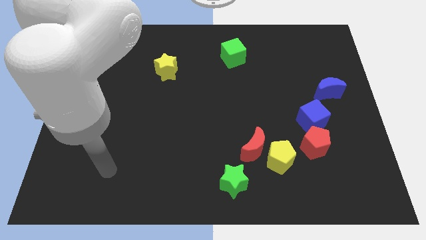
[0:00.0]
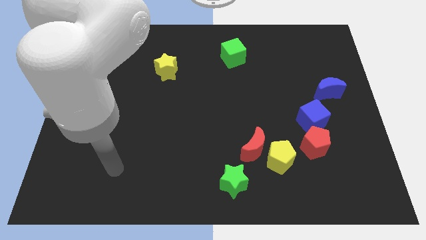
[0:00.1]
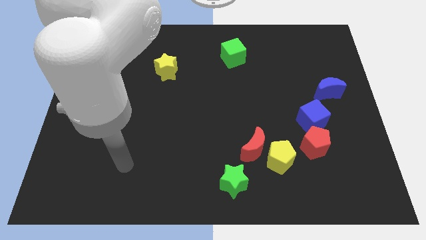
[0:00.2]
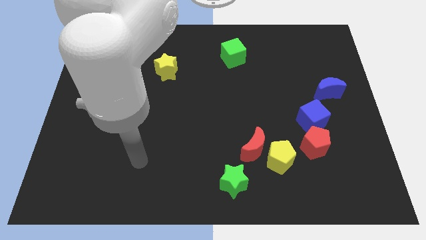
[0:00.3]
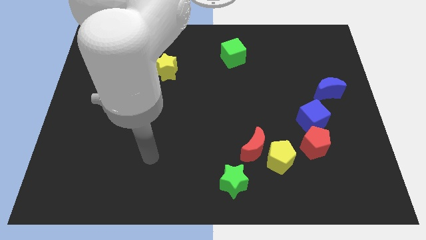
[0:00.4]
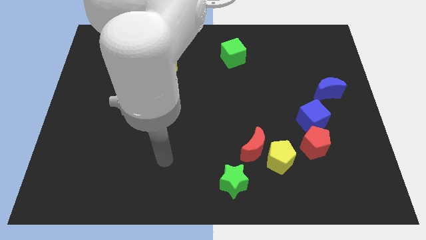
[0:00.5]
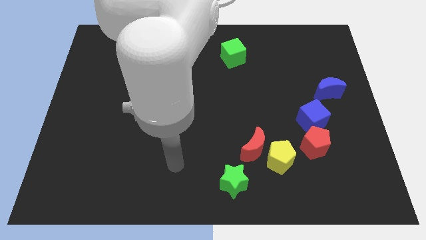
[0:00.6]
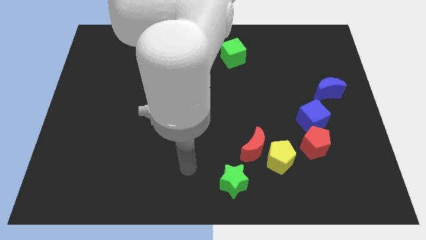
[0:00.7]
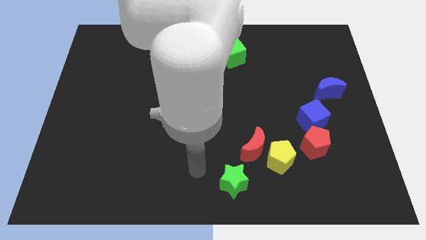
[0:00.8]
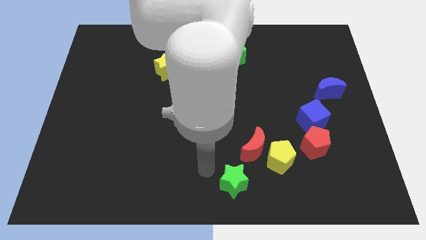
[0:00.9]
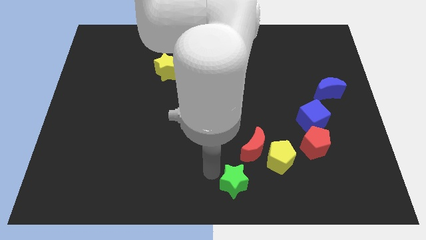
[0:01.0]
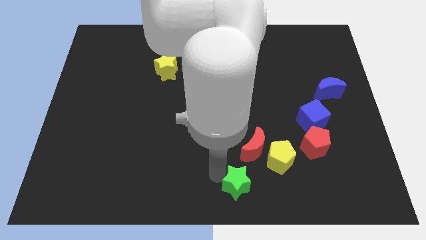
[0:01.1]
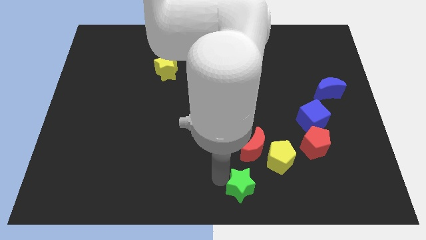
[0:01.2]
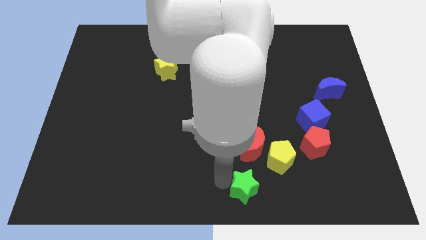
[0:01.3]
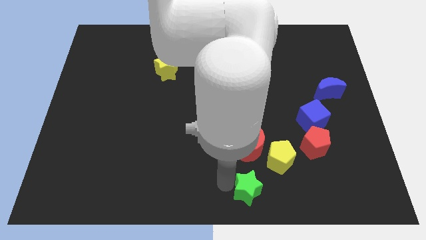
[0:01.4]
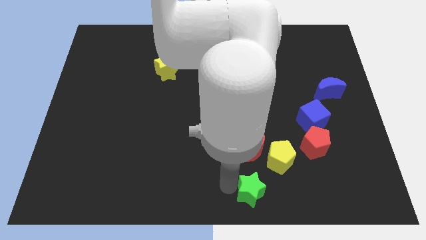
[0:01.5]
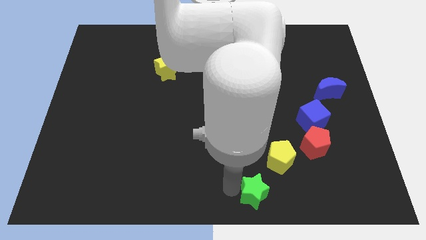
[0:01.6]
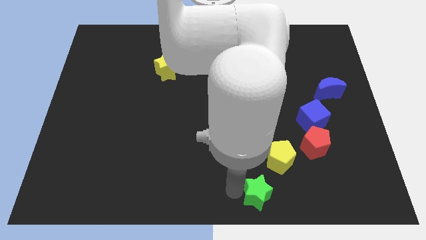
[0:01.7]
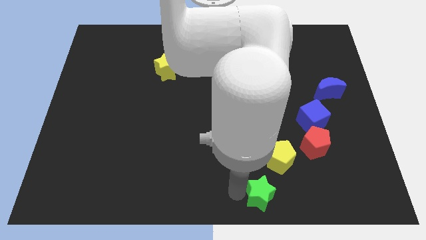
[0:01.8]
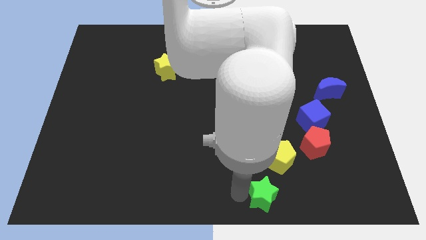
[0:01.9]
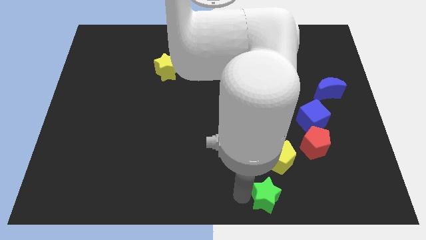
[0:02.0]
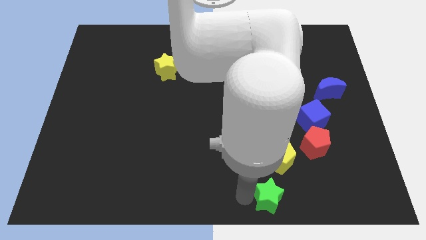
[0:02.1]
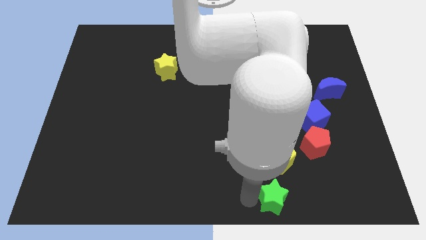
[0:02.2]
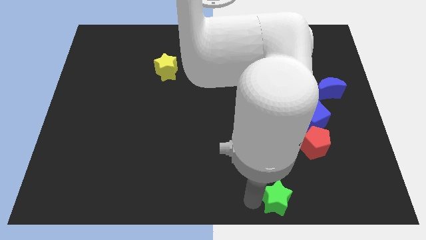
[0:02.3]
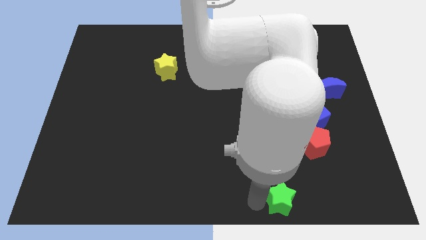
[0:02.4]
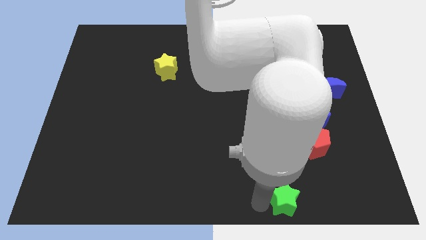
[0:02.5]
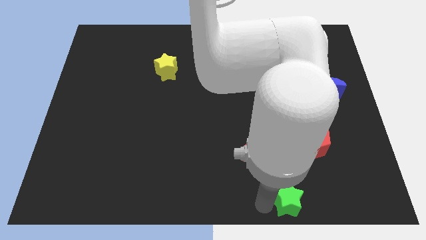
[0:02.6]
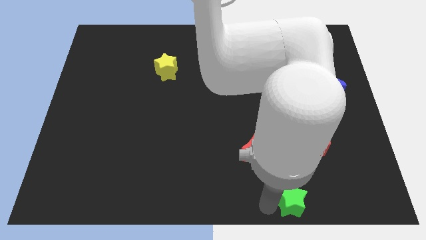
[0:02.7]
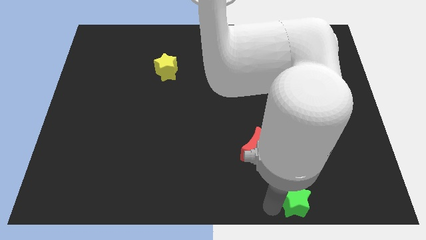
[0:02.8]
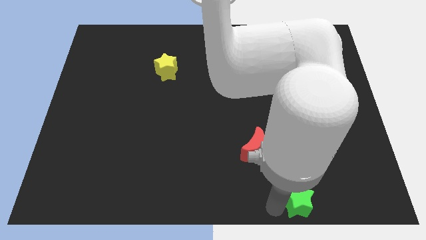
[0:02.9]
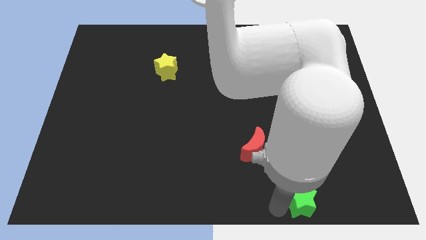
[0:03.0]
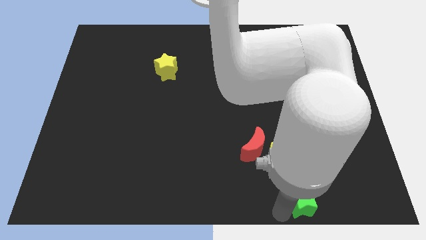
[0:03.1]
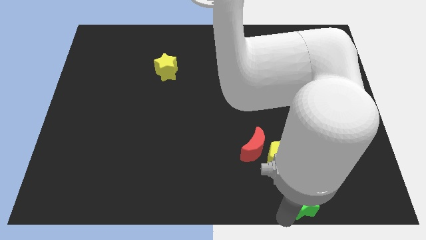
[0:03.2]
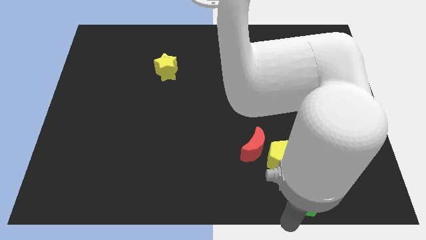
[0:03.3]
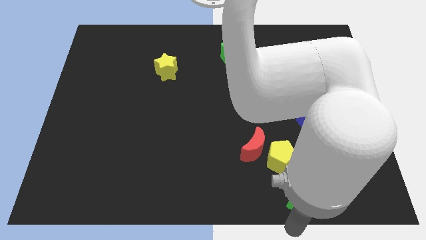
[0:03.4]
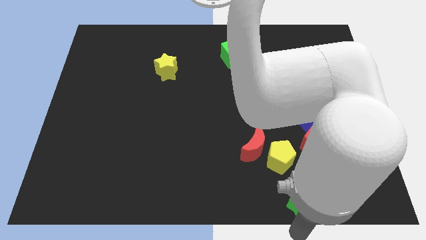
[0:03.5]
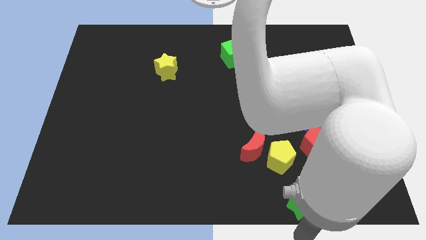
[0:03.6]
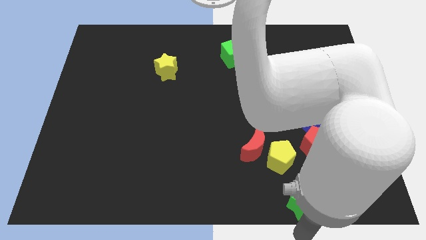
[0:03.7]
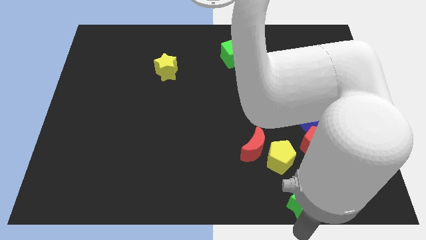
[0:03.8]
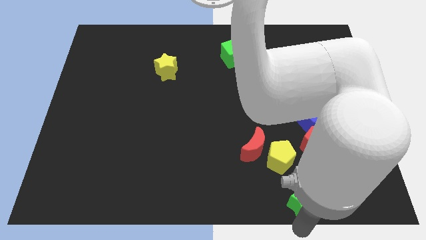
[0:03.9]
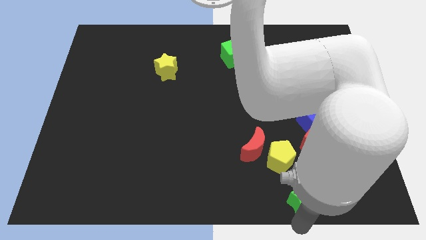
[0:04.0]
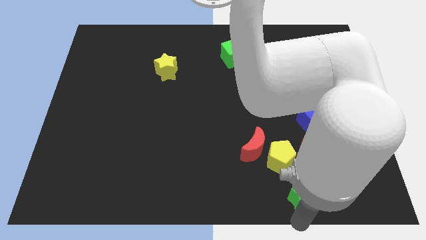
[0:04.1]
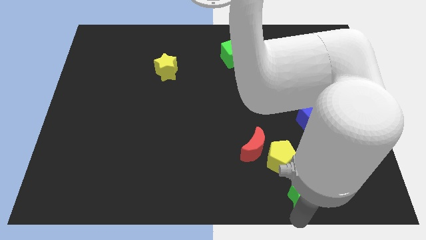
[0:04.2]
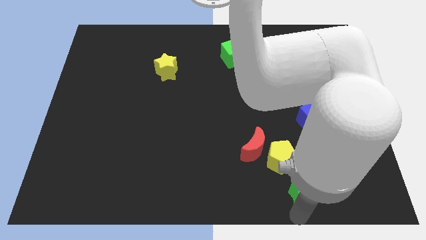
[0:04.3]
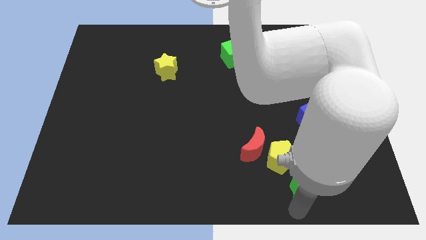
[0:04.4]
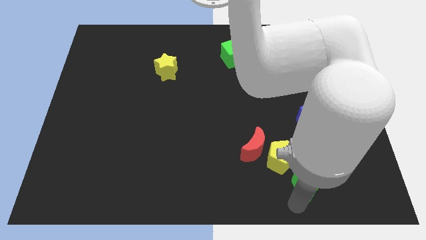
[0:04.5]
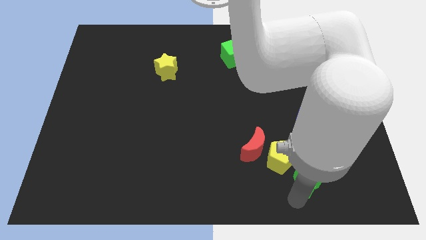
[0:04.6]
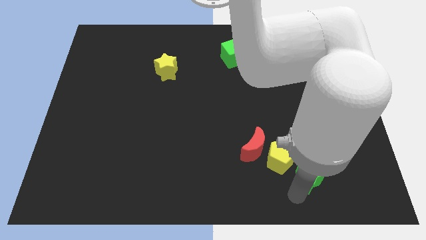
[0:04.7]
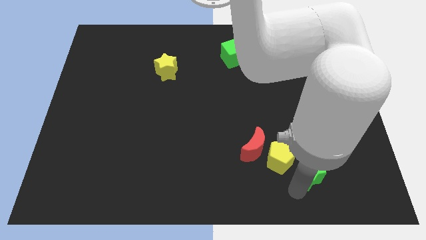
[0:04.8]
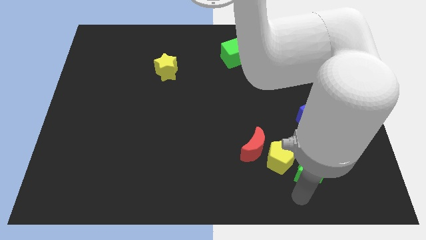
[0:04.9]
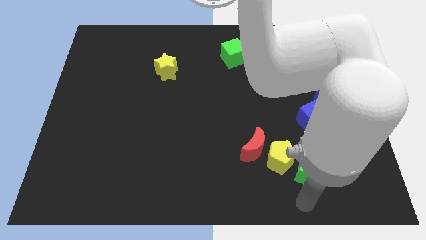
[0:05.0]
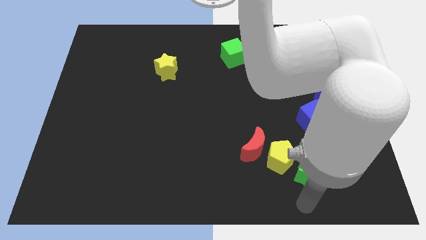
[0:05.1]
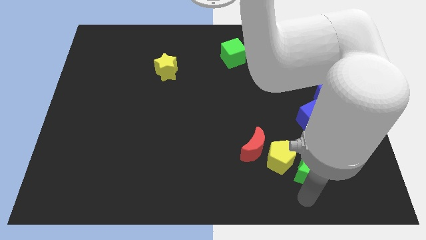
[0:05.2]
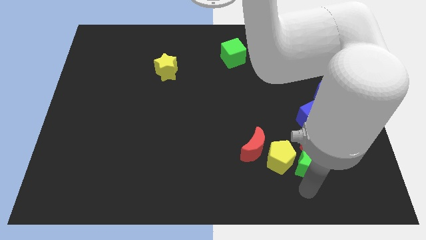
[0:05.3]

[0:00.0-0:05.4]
move the green star to the red pentagon

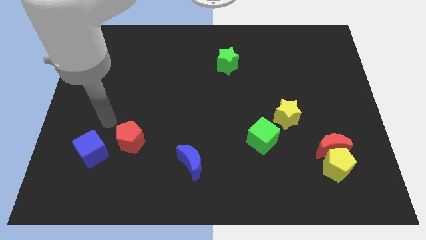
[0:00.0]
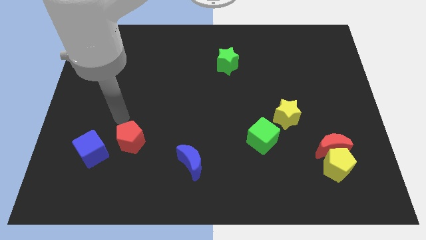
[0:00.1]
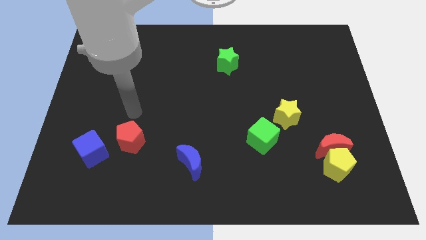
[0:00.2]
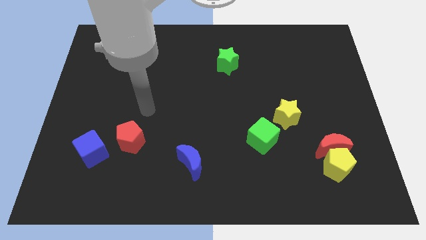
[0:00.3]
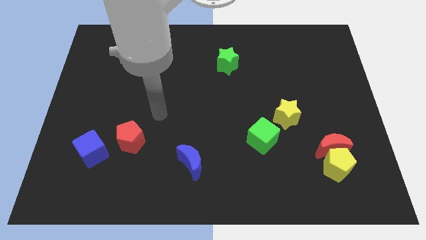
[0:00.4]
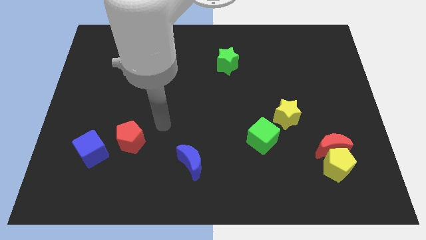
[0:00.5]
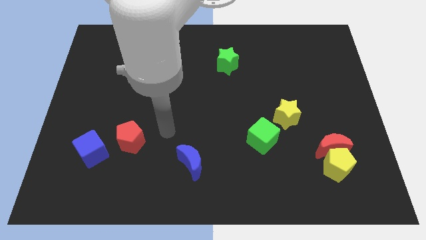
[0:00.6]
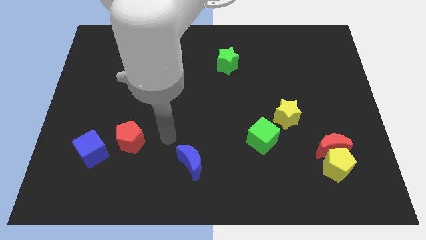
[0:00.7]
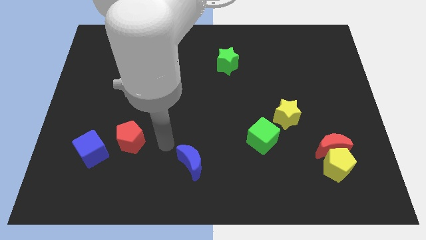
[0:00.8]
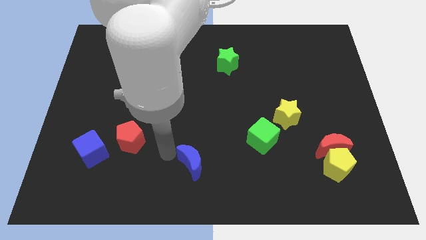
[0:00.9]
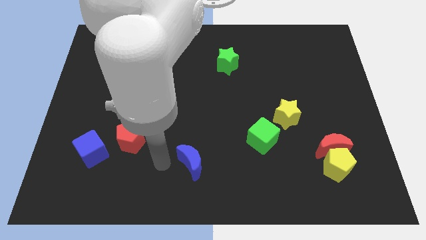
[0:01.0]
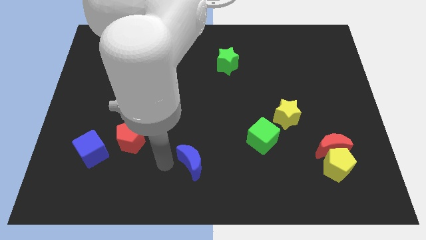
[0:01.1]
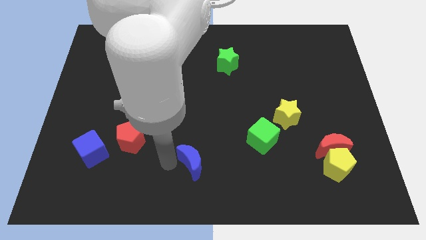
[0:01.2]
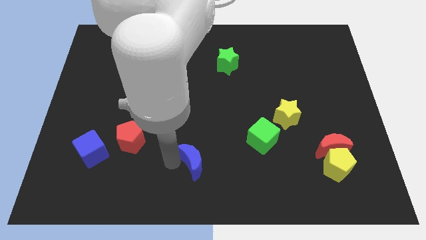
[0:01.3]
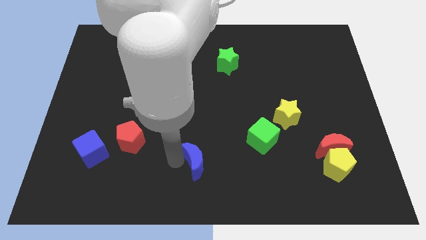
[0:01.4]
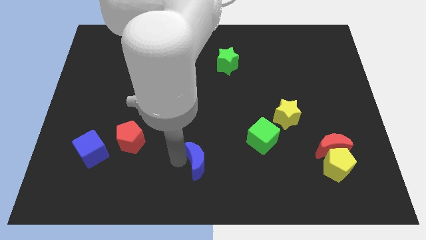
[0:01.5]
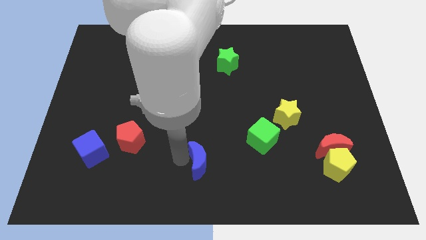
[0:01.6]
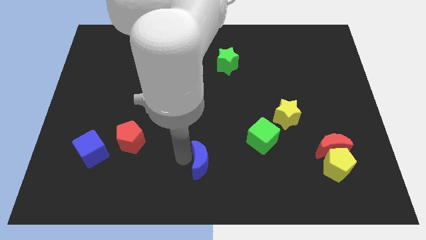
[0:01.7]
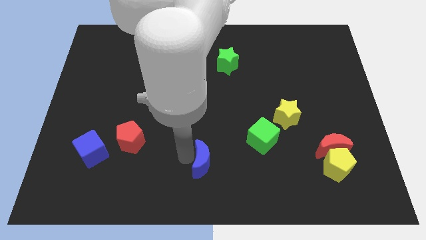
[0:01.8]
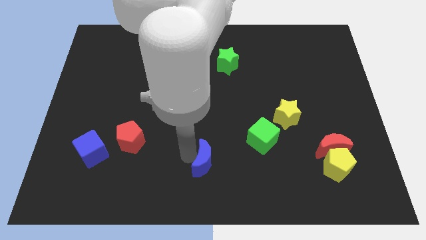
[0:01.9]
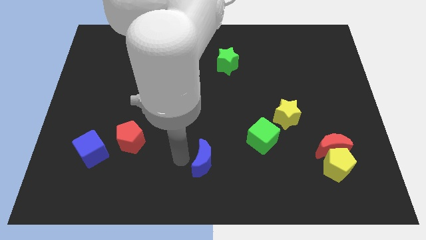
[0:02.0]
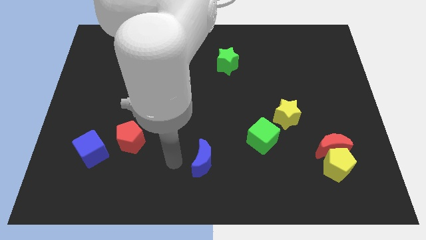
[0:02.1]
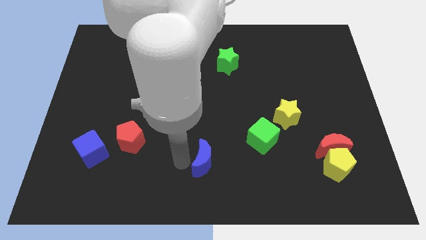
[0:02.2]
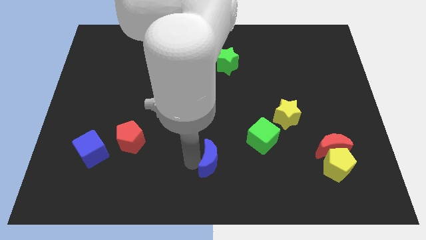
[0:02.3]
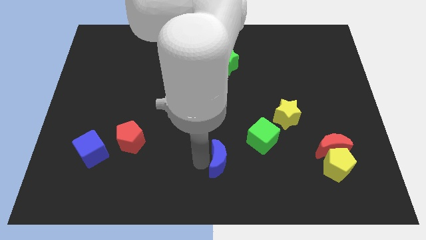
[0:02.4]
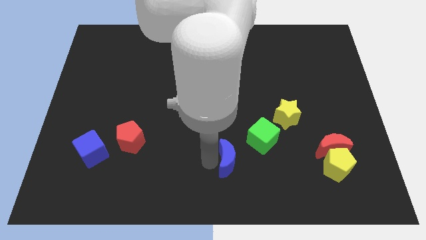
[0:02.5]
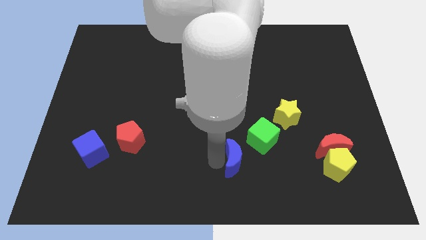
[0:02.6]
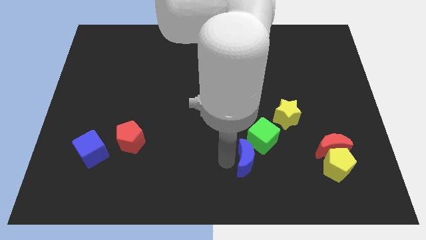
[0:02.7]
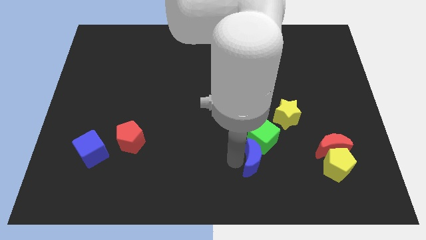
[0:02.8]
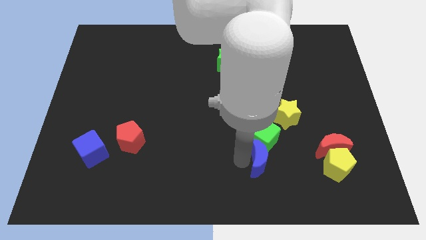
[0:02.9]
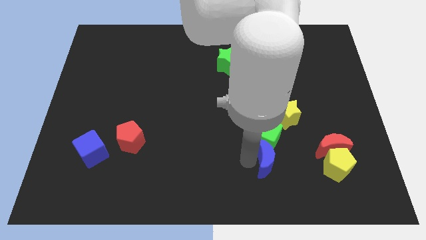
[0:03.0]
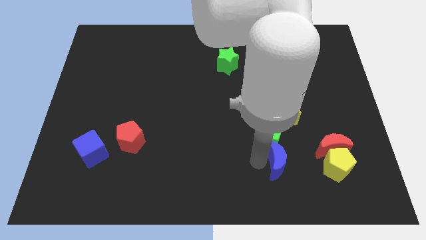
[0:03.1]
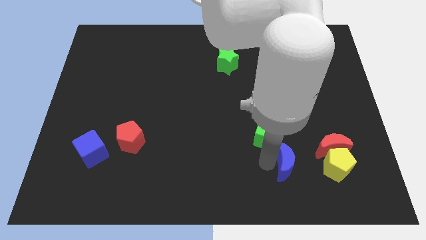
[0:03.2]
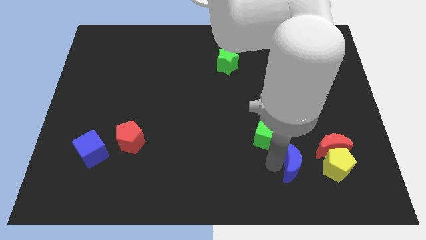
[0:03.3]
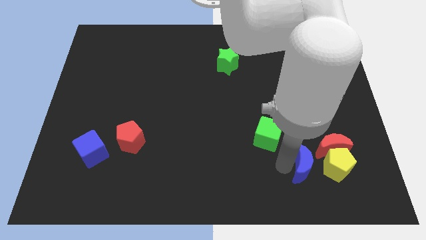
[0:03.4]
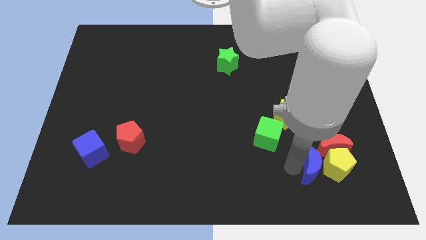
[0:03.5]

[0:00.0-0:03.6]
move the blue moon to the yellow pentagon
